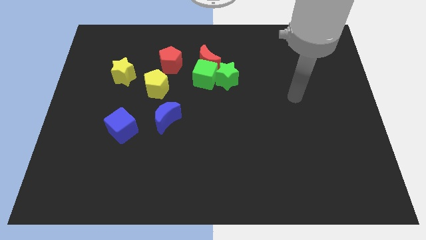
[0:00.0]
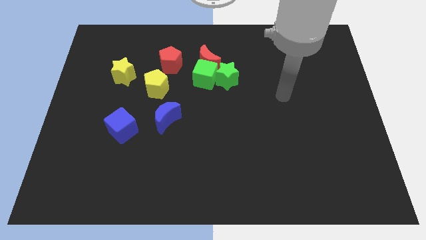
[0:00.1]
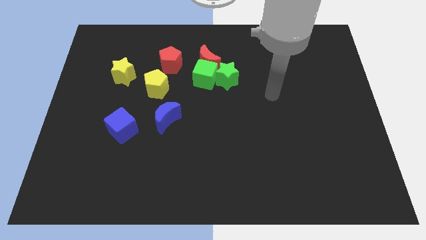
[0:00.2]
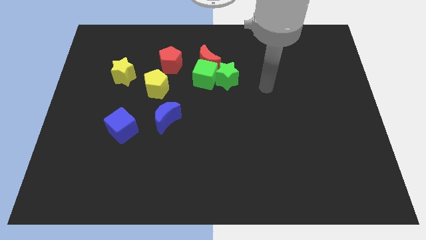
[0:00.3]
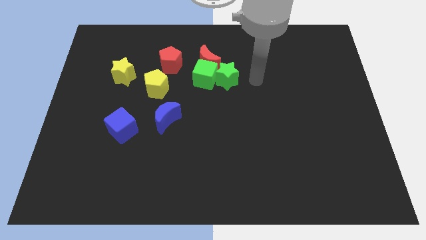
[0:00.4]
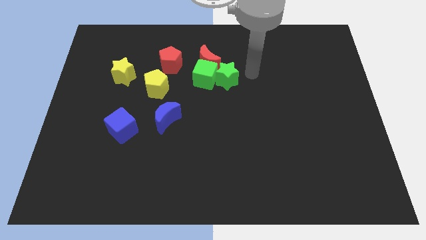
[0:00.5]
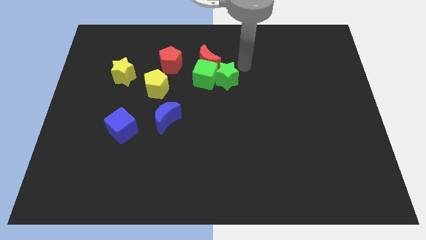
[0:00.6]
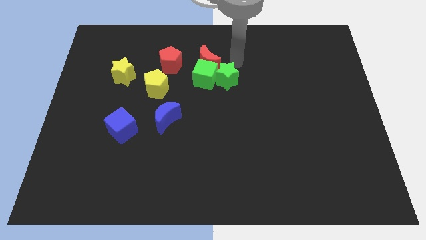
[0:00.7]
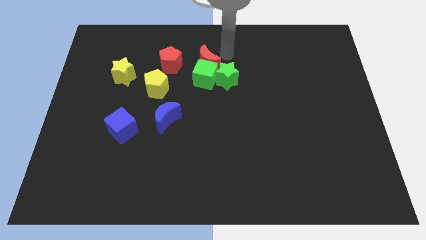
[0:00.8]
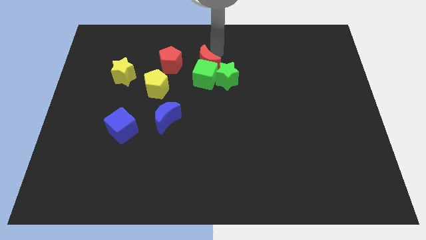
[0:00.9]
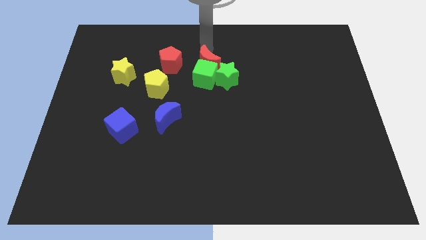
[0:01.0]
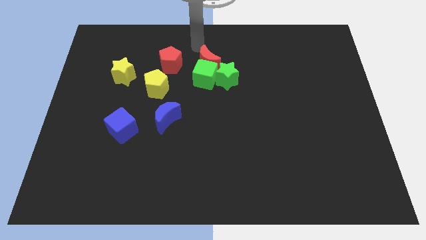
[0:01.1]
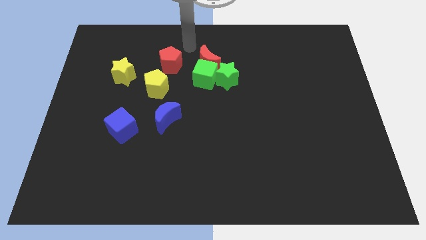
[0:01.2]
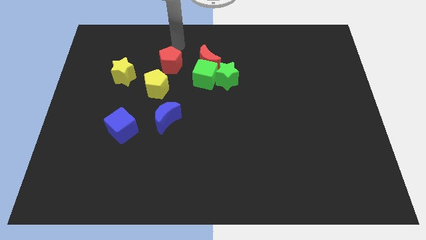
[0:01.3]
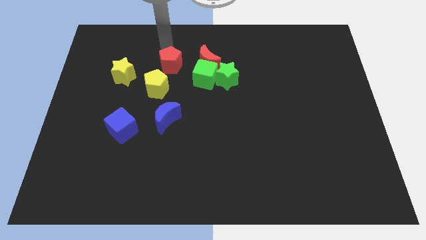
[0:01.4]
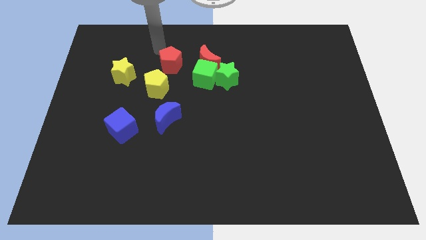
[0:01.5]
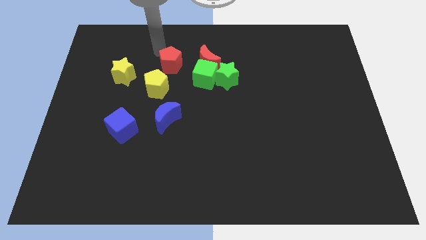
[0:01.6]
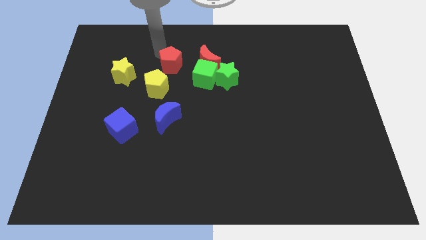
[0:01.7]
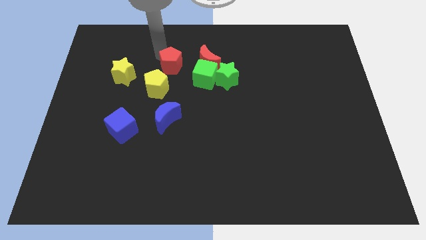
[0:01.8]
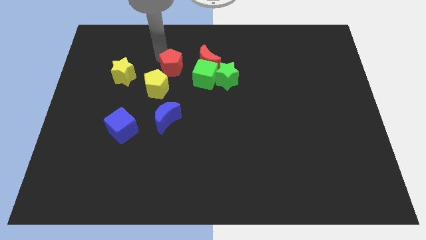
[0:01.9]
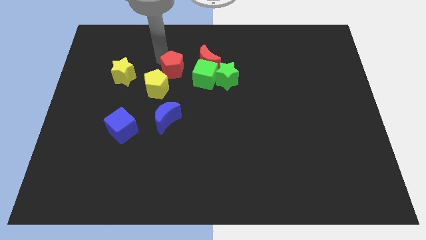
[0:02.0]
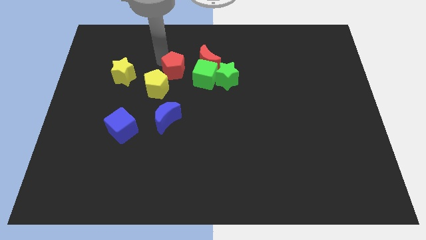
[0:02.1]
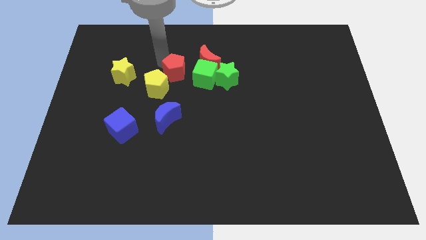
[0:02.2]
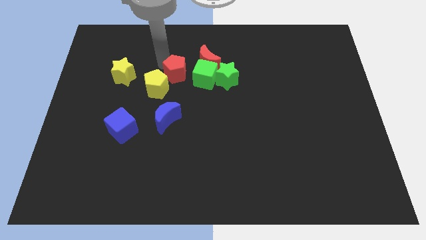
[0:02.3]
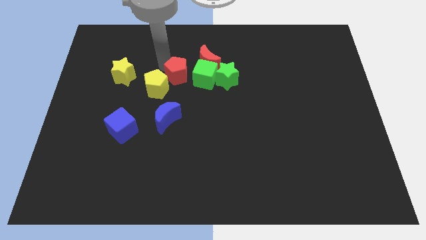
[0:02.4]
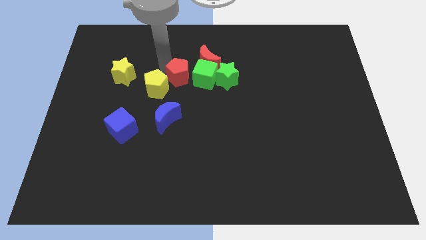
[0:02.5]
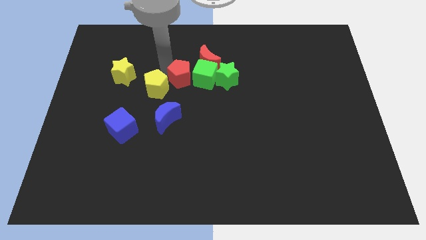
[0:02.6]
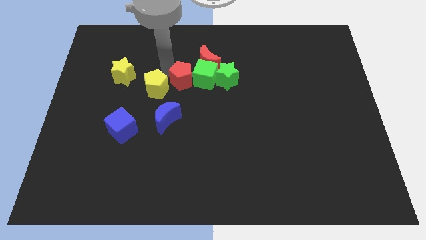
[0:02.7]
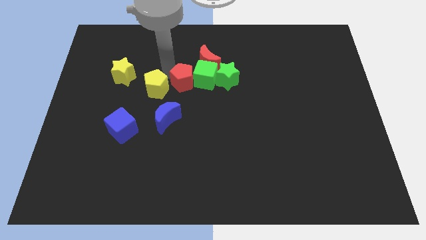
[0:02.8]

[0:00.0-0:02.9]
push the red pentagon a little diagonally downwards and right

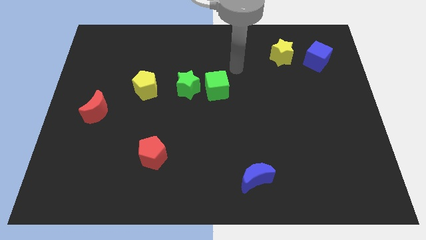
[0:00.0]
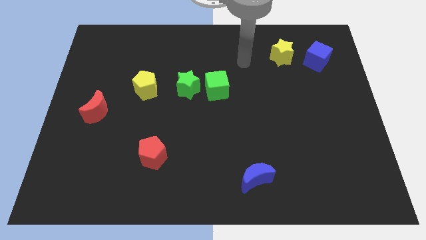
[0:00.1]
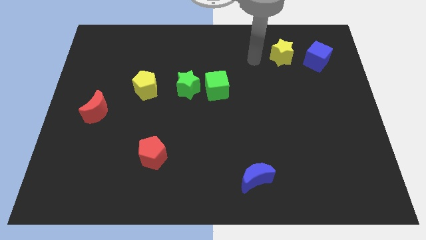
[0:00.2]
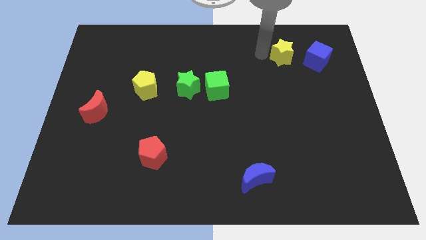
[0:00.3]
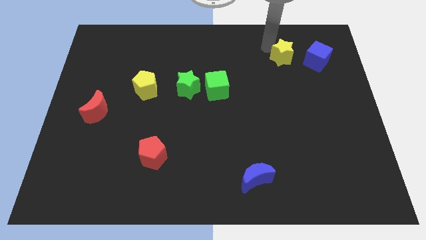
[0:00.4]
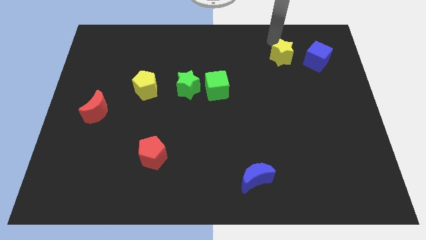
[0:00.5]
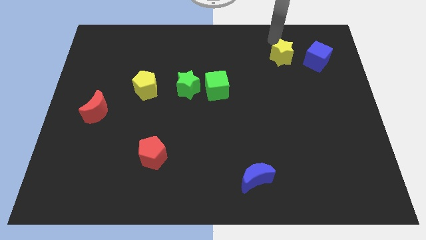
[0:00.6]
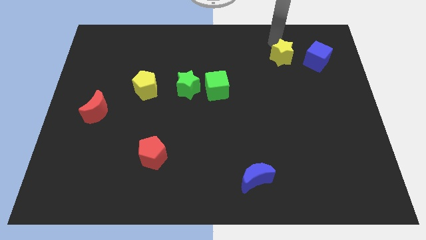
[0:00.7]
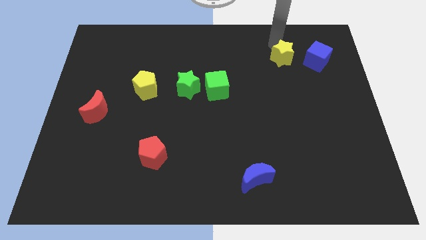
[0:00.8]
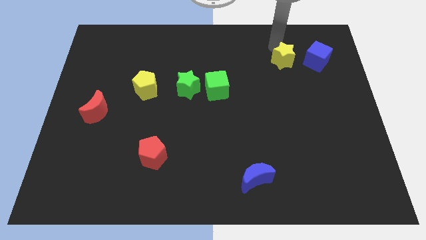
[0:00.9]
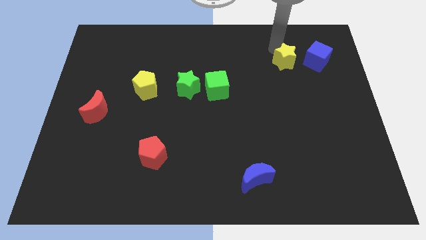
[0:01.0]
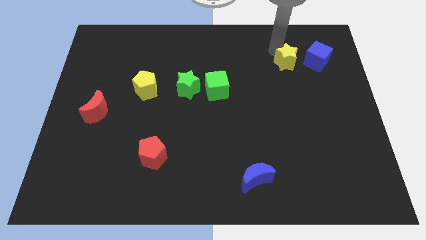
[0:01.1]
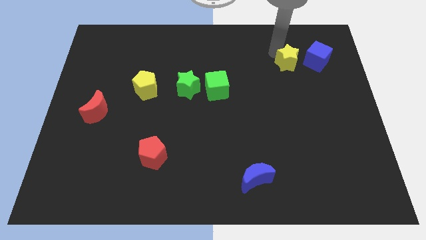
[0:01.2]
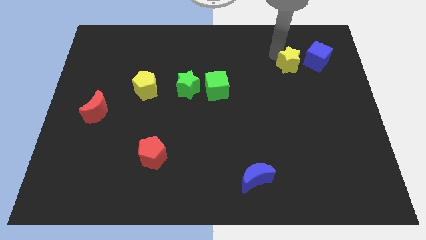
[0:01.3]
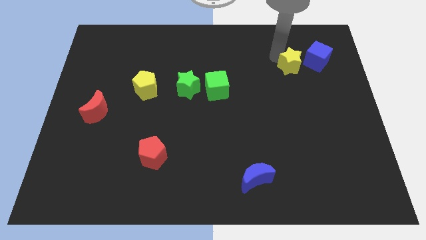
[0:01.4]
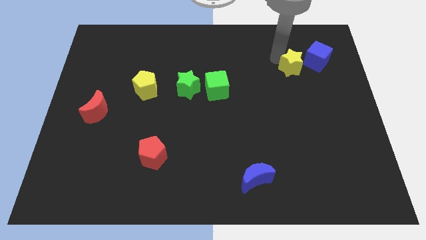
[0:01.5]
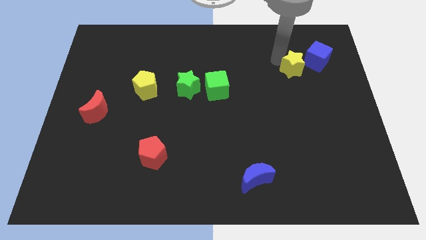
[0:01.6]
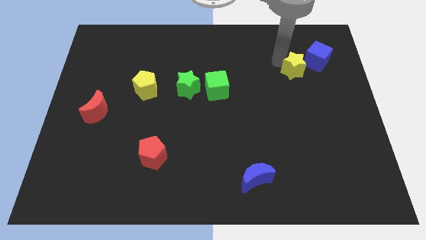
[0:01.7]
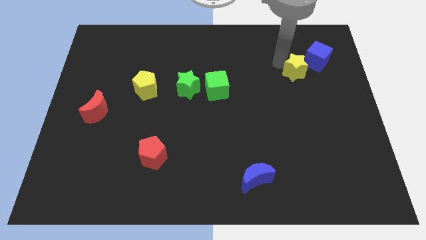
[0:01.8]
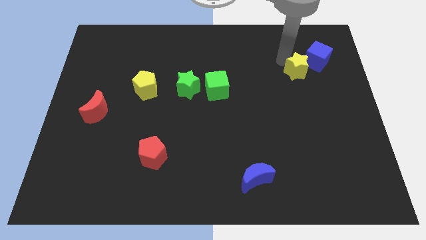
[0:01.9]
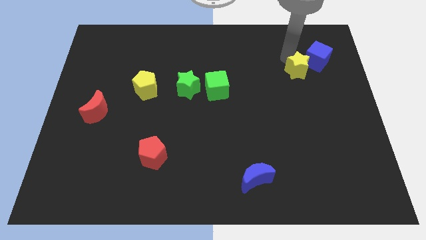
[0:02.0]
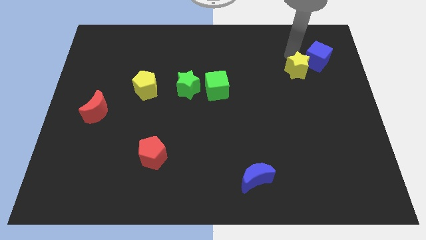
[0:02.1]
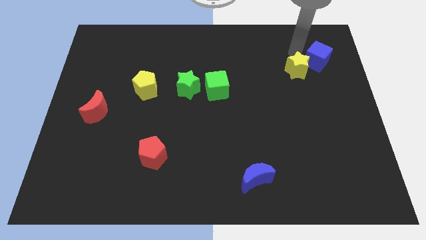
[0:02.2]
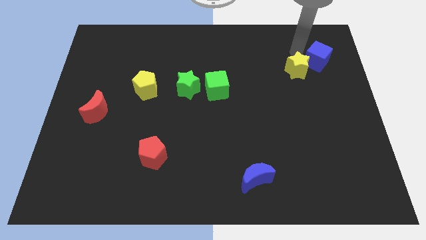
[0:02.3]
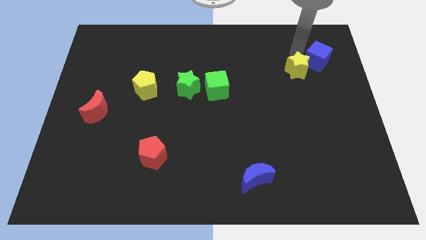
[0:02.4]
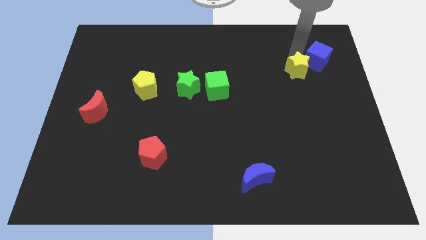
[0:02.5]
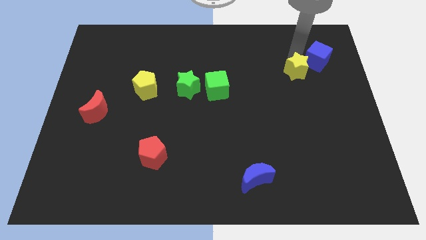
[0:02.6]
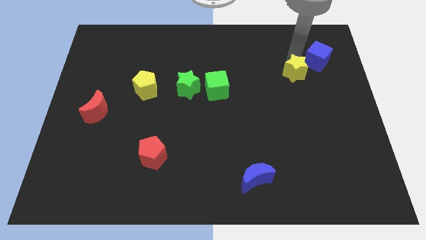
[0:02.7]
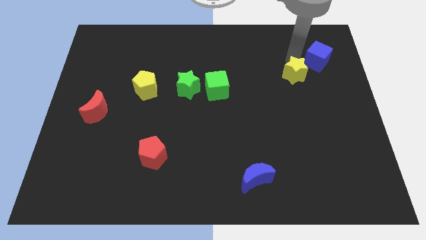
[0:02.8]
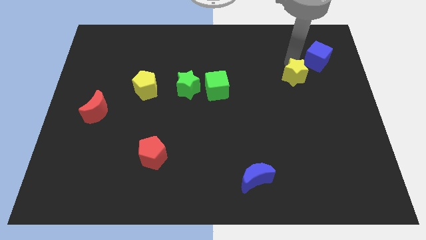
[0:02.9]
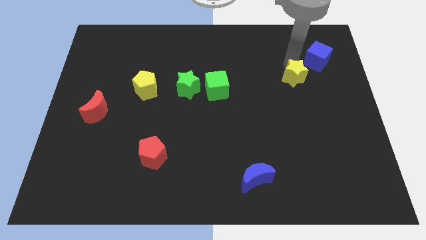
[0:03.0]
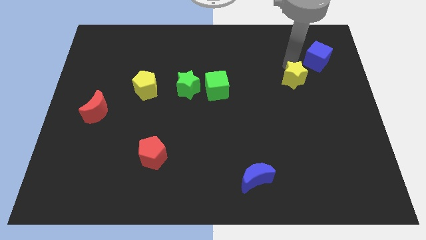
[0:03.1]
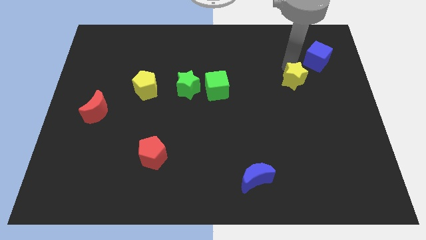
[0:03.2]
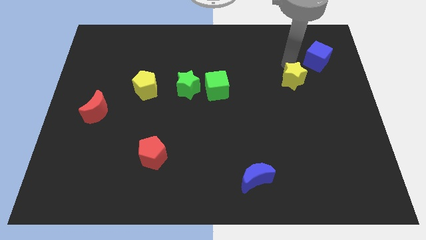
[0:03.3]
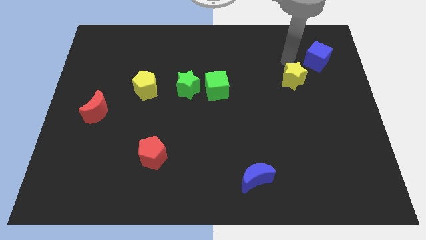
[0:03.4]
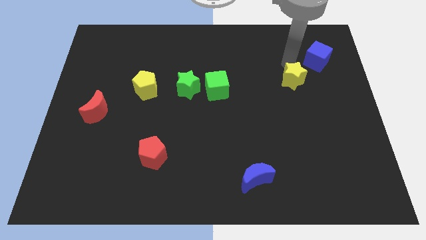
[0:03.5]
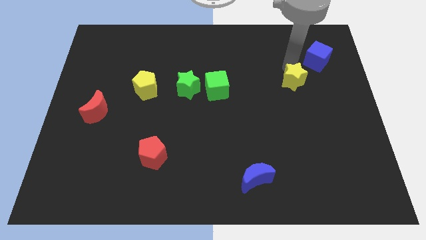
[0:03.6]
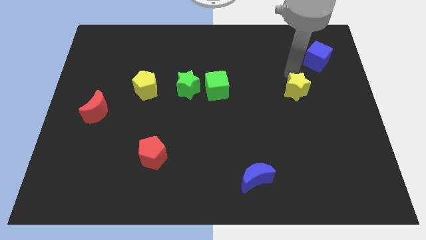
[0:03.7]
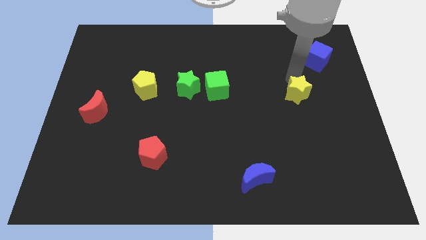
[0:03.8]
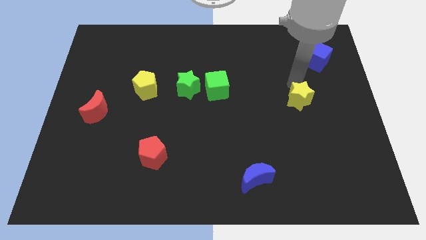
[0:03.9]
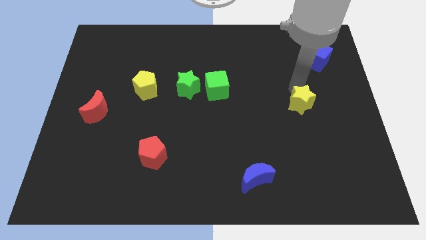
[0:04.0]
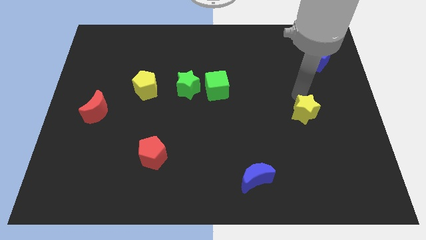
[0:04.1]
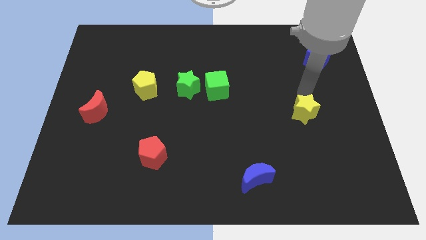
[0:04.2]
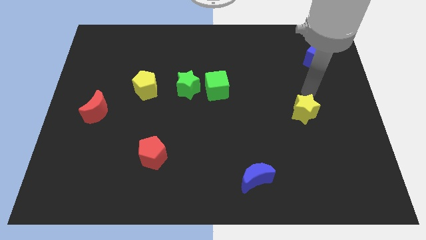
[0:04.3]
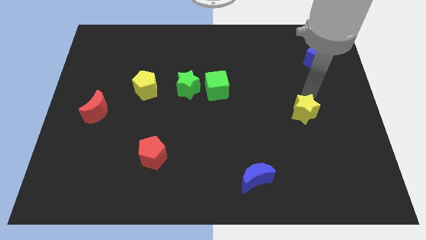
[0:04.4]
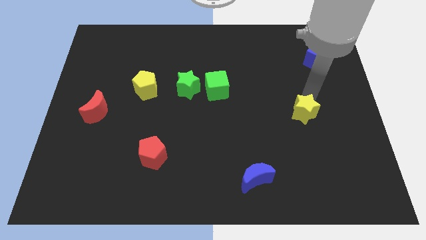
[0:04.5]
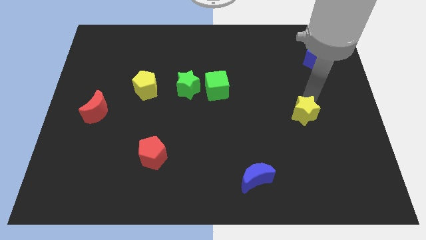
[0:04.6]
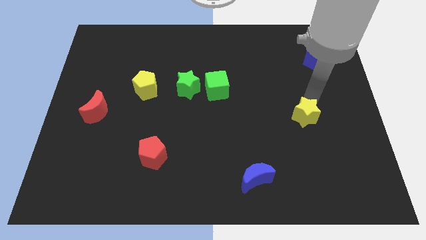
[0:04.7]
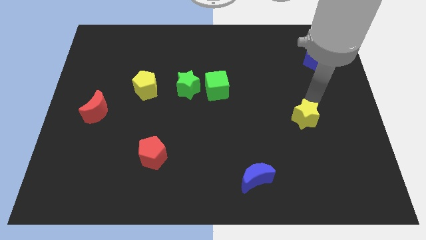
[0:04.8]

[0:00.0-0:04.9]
push the yellow star down

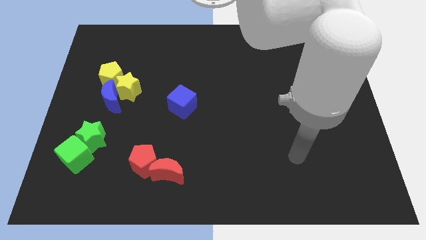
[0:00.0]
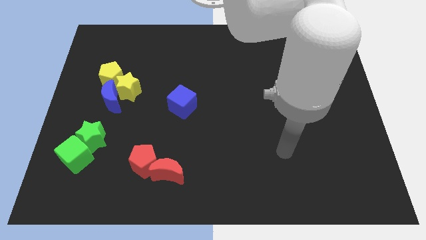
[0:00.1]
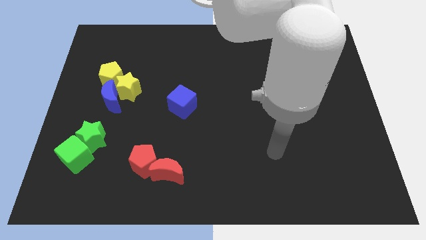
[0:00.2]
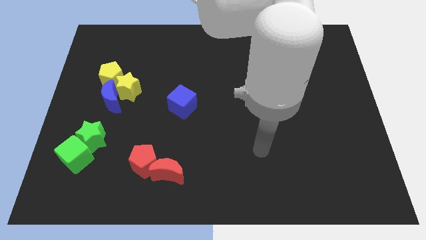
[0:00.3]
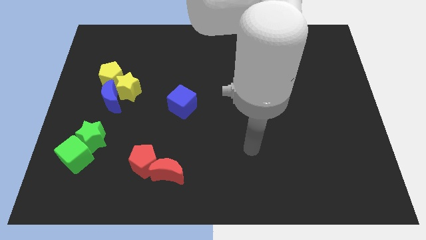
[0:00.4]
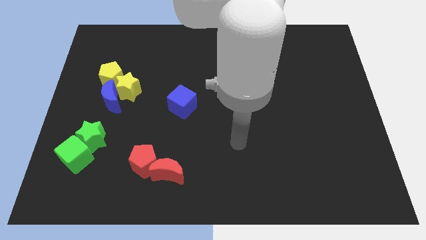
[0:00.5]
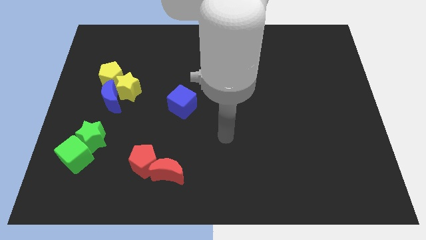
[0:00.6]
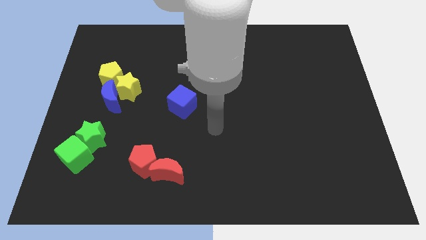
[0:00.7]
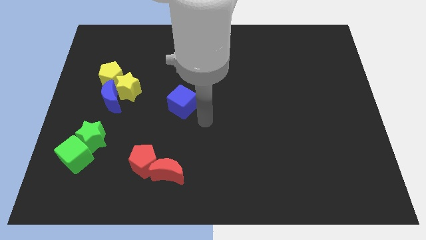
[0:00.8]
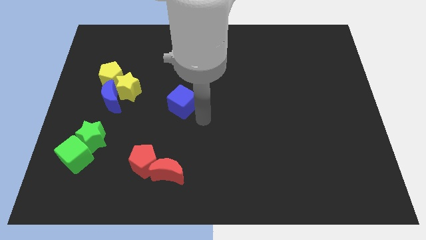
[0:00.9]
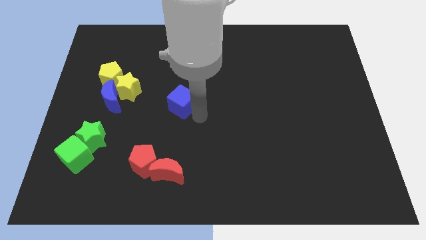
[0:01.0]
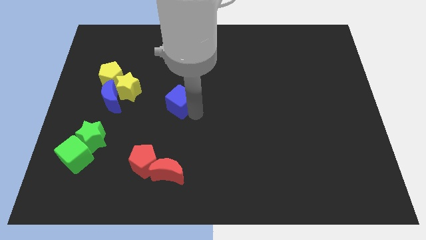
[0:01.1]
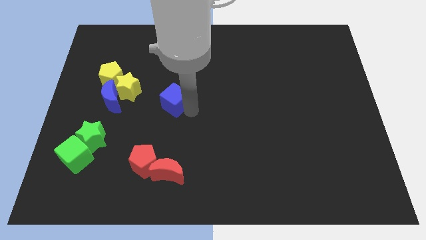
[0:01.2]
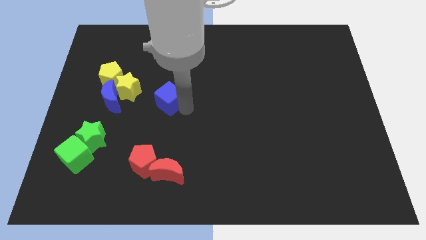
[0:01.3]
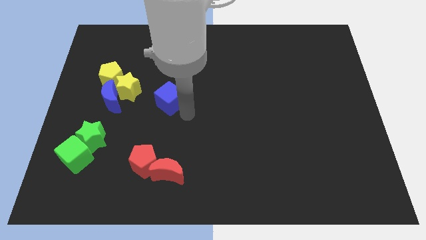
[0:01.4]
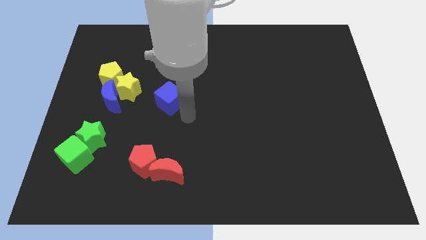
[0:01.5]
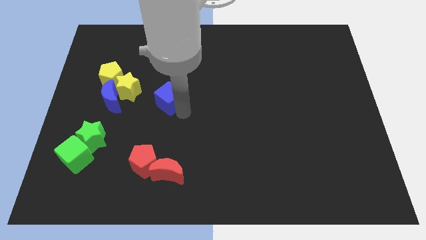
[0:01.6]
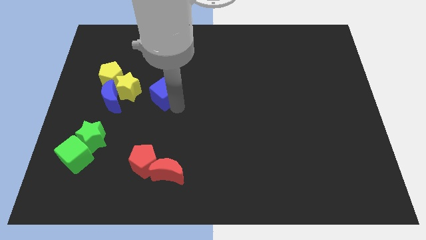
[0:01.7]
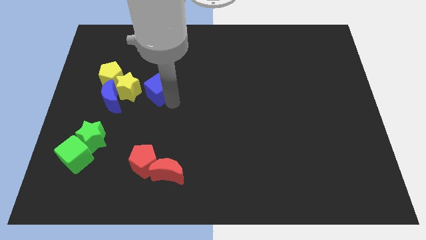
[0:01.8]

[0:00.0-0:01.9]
slightly move the blue cube up and then to the left
